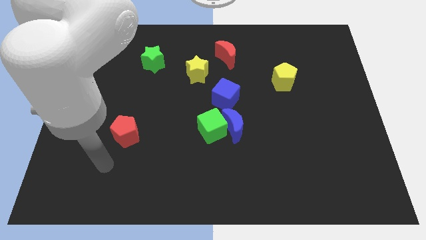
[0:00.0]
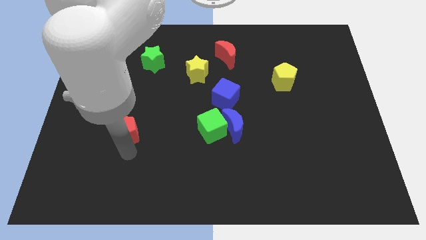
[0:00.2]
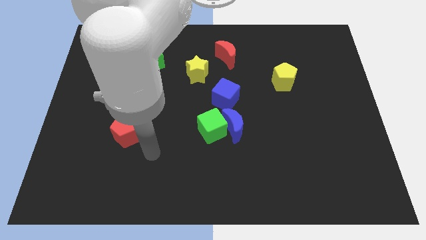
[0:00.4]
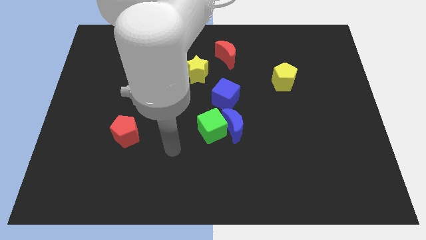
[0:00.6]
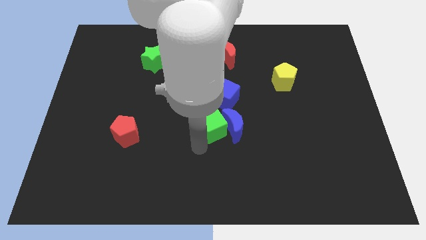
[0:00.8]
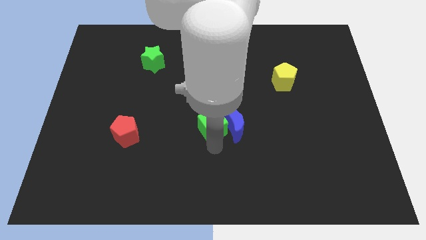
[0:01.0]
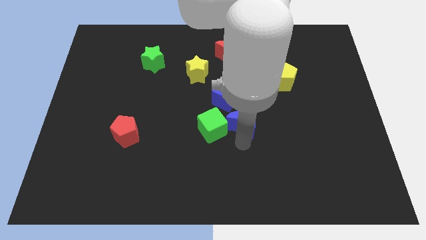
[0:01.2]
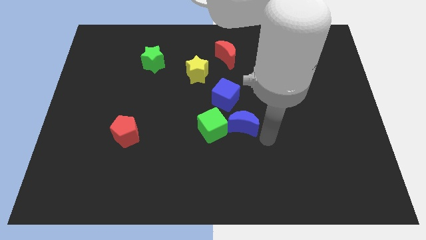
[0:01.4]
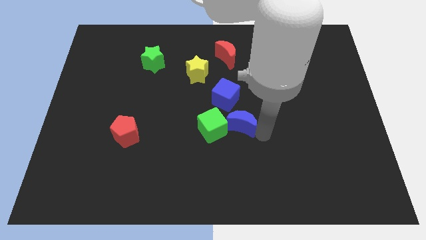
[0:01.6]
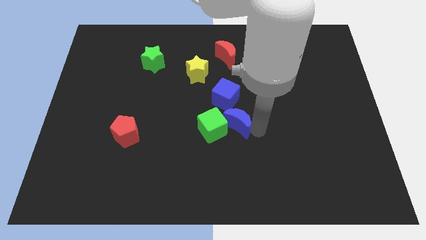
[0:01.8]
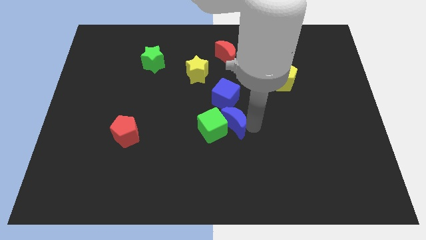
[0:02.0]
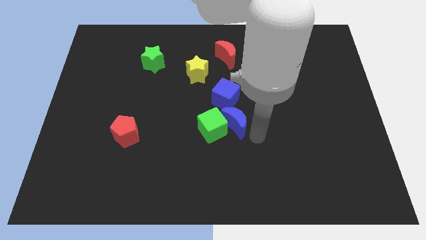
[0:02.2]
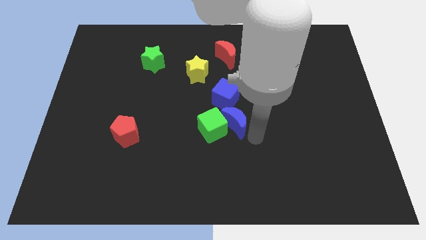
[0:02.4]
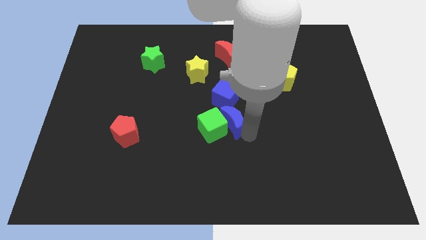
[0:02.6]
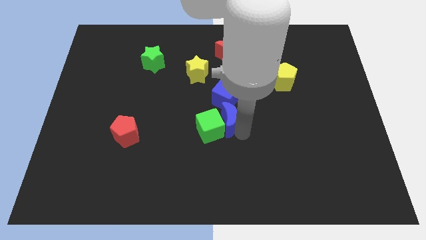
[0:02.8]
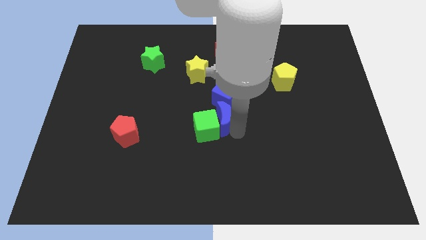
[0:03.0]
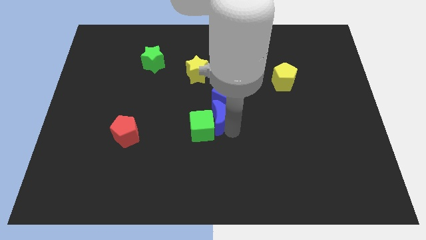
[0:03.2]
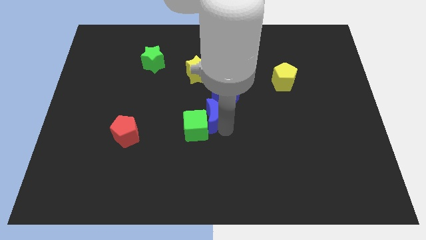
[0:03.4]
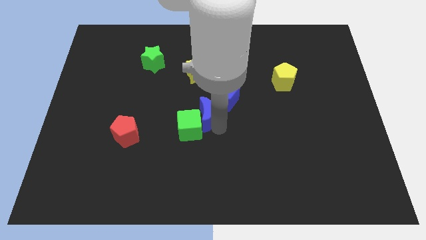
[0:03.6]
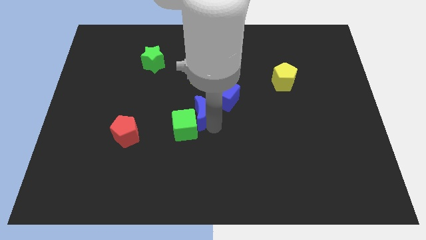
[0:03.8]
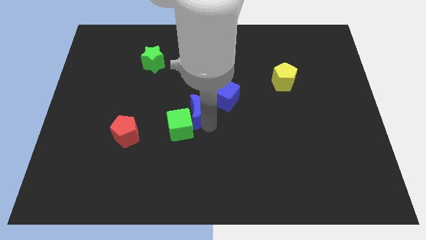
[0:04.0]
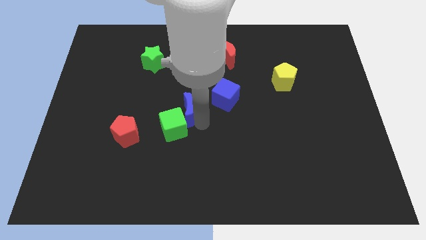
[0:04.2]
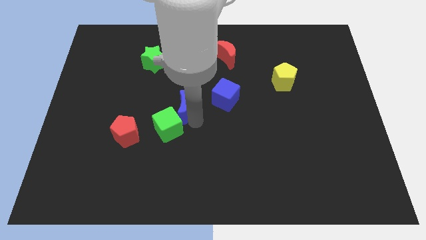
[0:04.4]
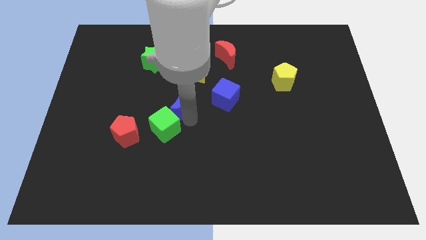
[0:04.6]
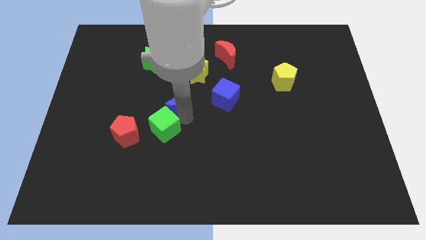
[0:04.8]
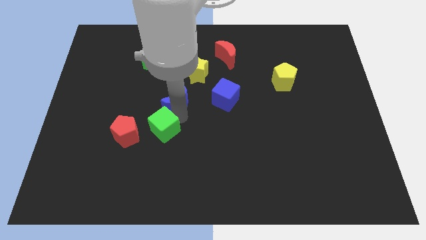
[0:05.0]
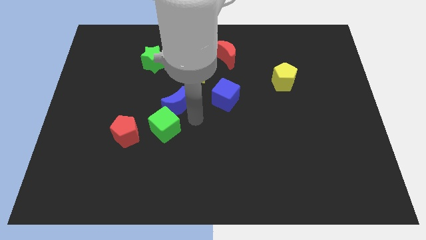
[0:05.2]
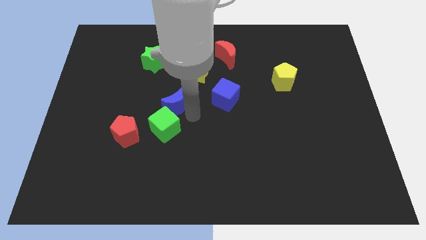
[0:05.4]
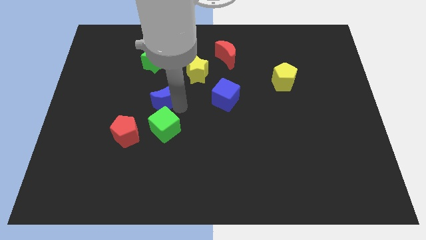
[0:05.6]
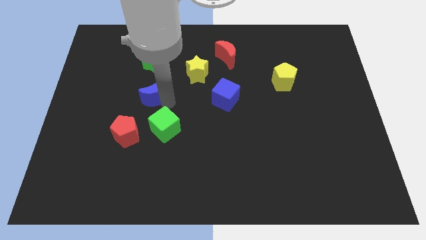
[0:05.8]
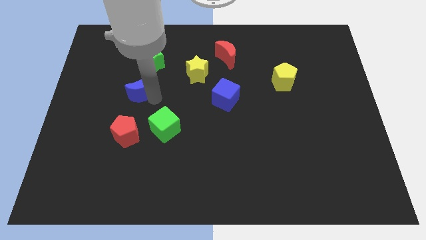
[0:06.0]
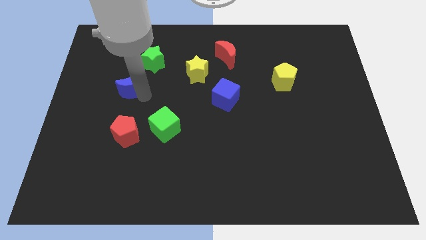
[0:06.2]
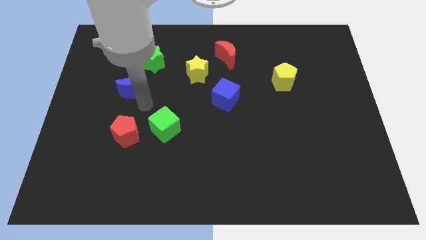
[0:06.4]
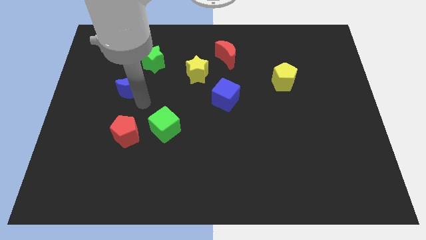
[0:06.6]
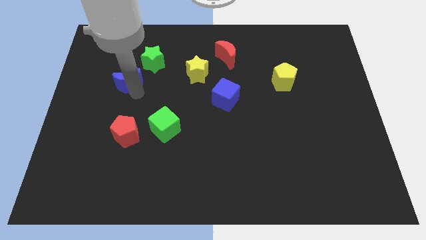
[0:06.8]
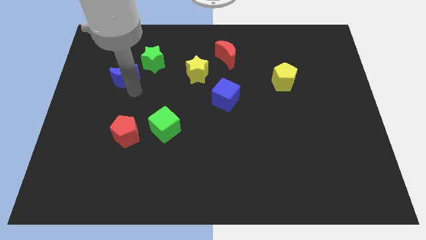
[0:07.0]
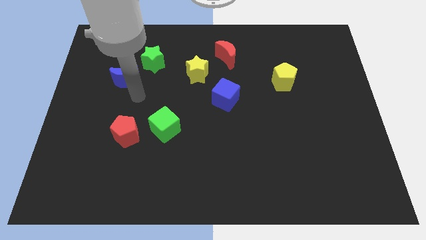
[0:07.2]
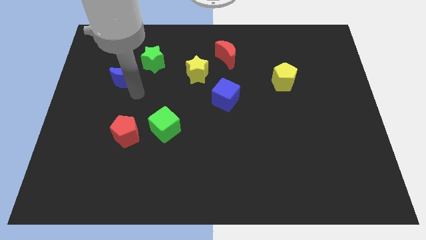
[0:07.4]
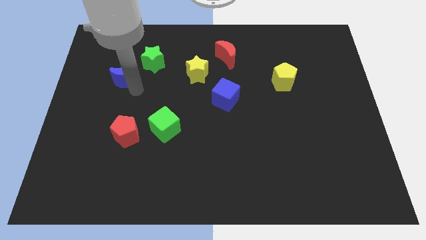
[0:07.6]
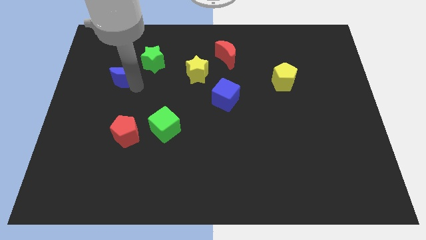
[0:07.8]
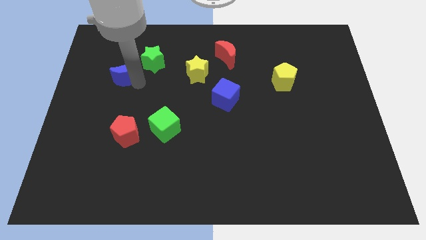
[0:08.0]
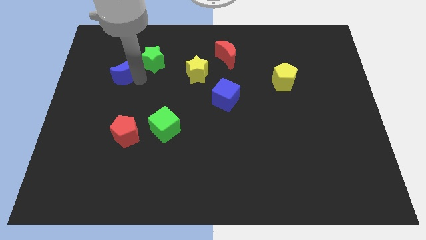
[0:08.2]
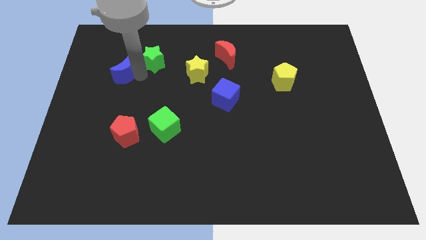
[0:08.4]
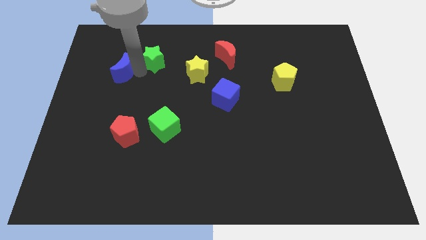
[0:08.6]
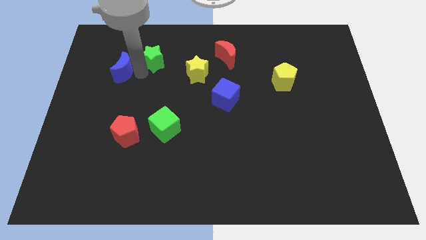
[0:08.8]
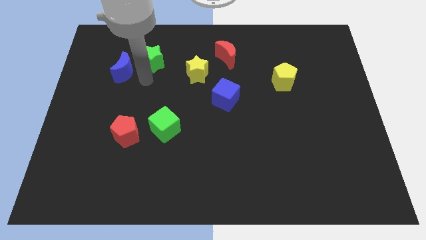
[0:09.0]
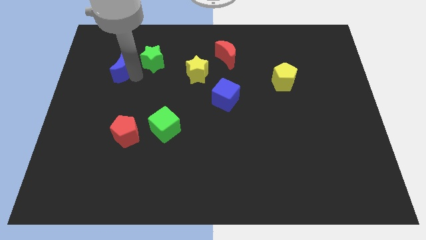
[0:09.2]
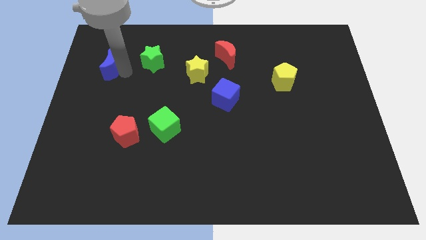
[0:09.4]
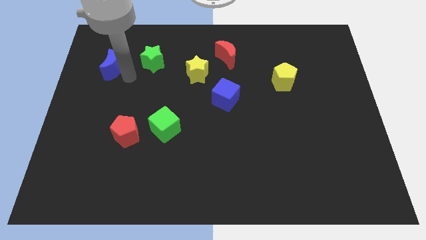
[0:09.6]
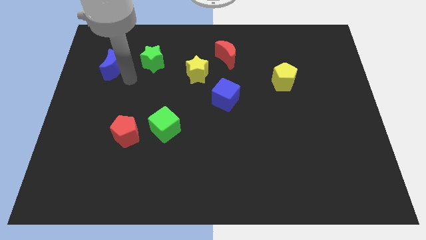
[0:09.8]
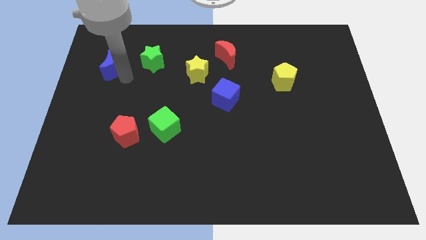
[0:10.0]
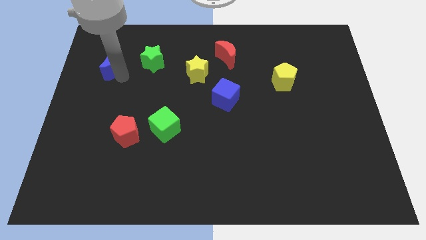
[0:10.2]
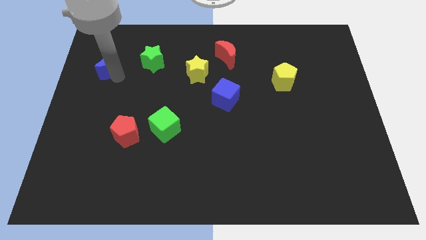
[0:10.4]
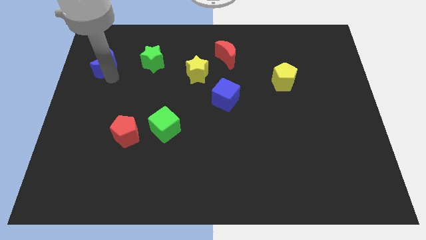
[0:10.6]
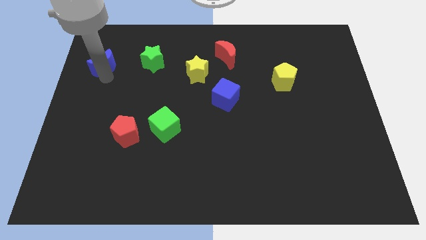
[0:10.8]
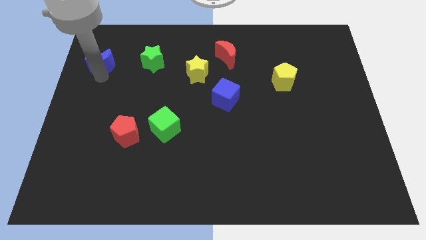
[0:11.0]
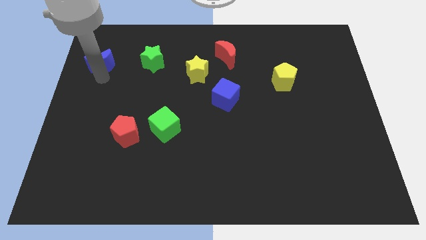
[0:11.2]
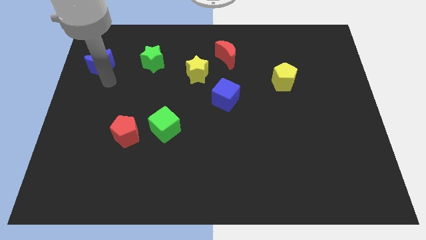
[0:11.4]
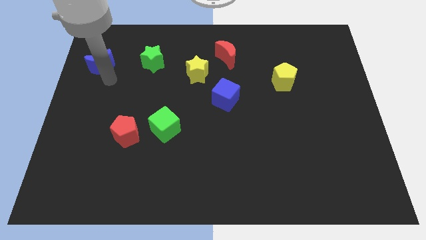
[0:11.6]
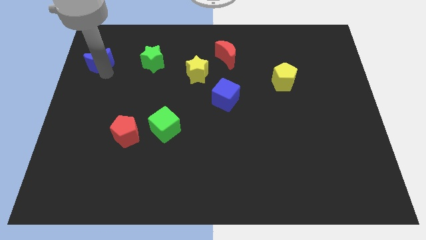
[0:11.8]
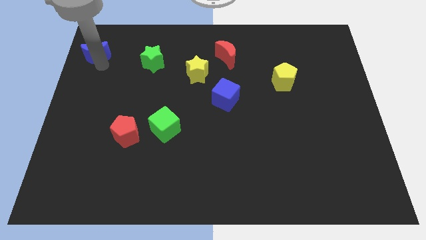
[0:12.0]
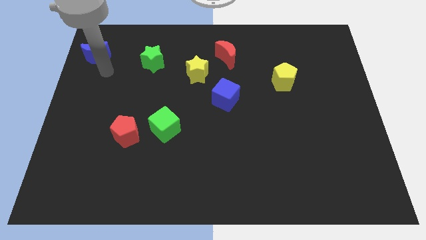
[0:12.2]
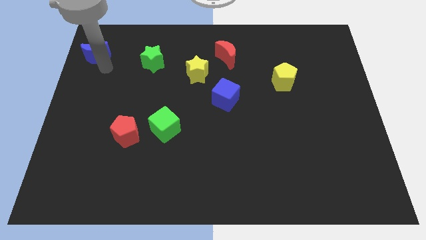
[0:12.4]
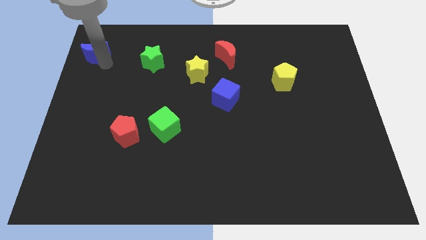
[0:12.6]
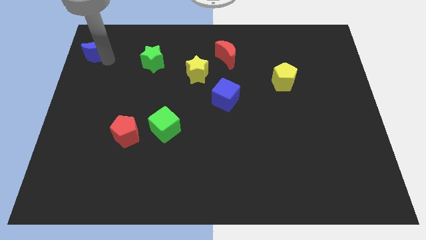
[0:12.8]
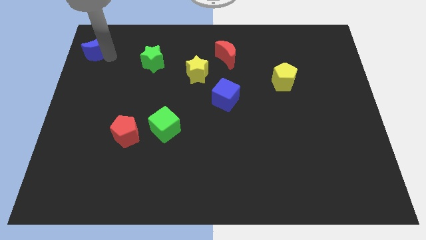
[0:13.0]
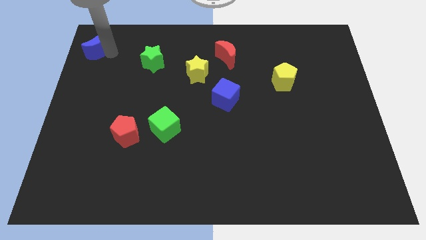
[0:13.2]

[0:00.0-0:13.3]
move the blue moon to the top left of the board
